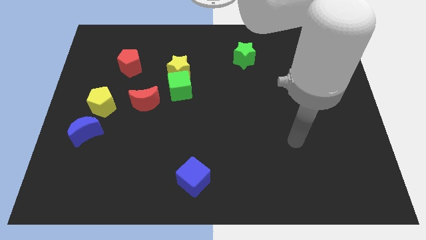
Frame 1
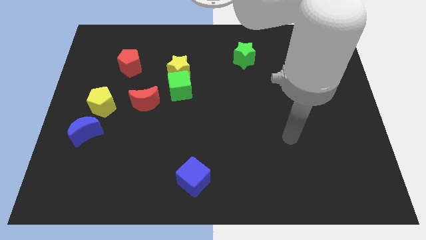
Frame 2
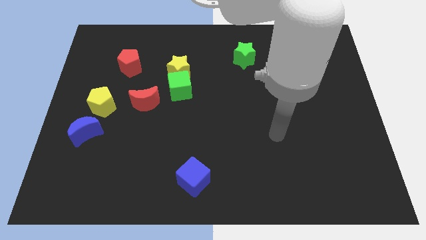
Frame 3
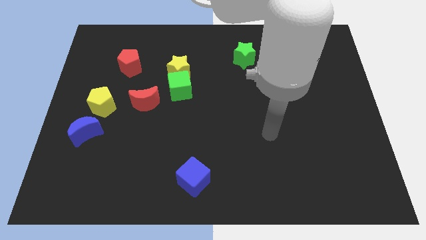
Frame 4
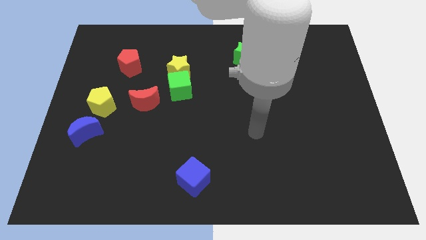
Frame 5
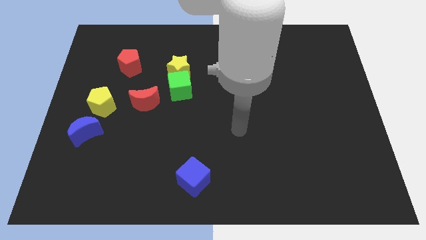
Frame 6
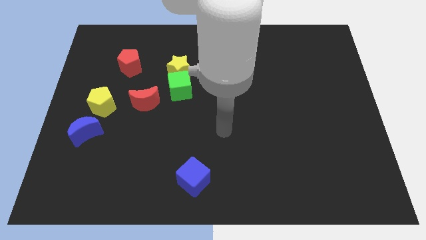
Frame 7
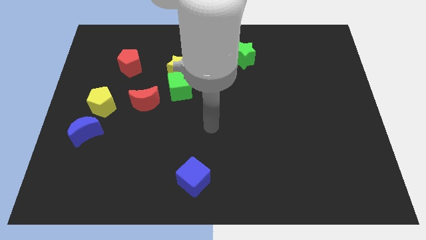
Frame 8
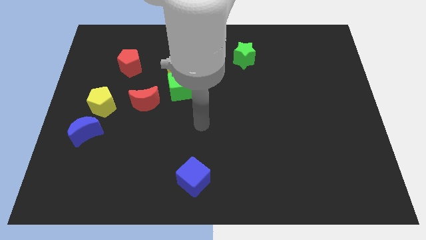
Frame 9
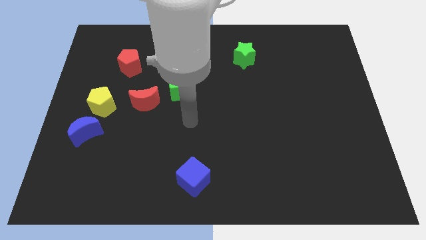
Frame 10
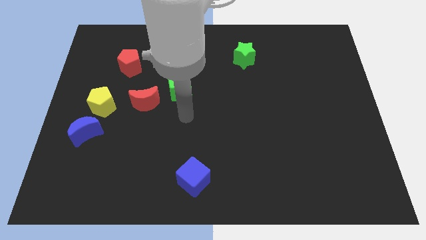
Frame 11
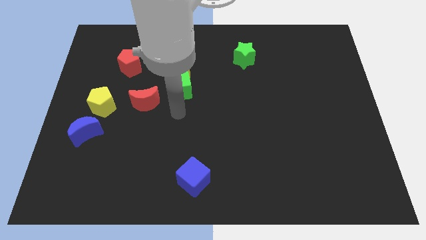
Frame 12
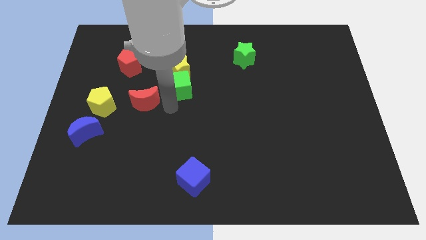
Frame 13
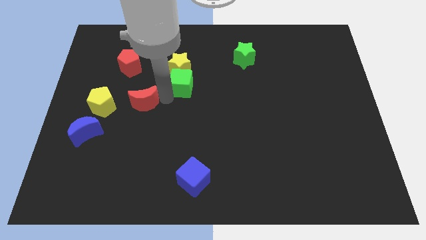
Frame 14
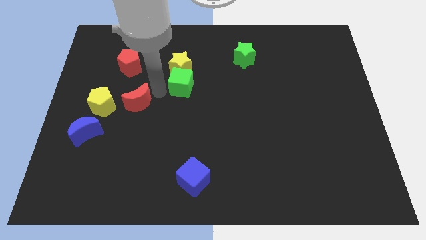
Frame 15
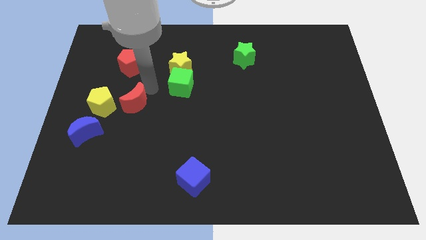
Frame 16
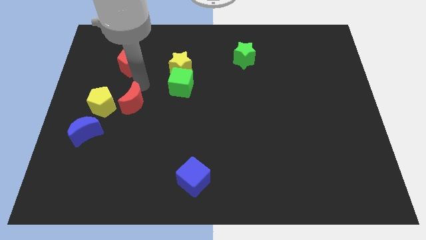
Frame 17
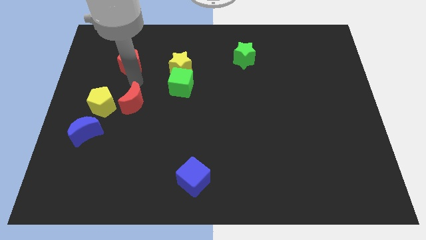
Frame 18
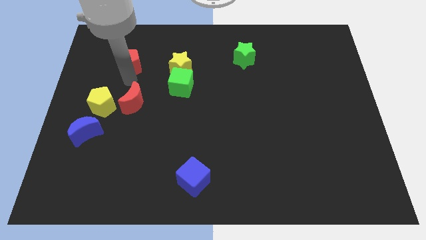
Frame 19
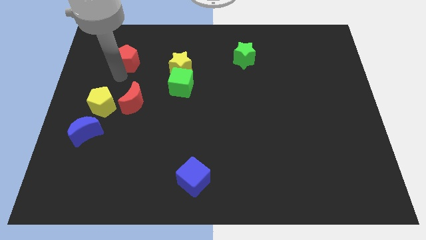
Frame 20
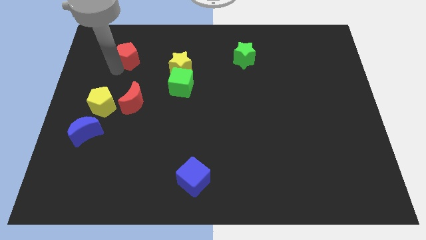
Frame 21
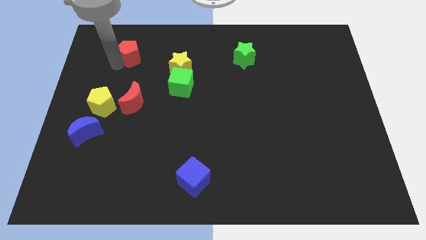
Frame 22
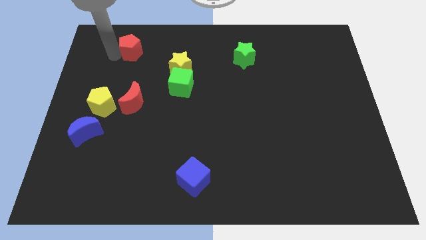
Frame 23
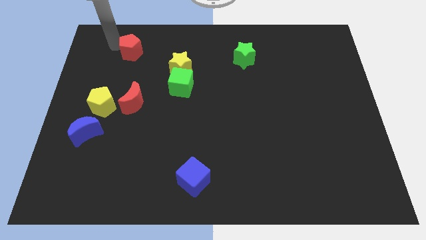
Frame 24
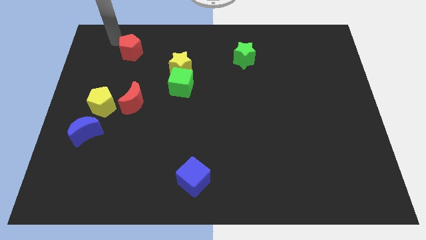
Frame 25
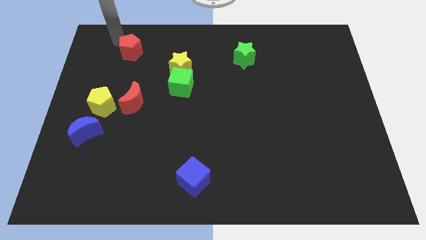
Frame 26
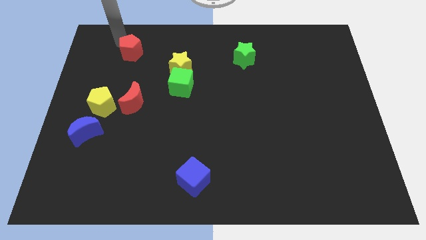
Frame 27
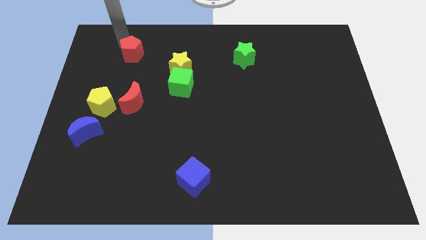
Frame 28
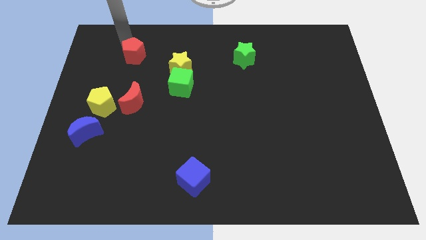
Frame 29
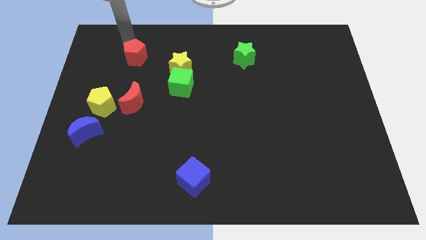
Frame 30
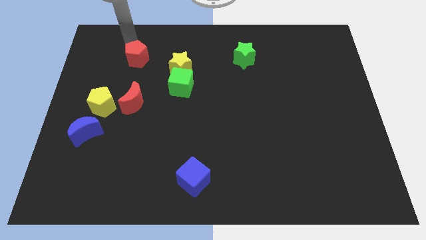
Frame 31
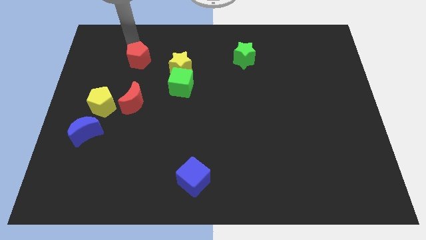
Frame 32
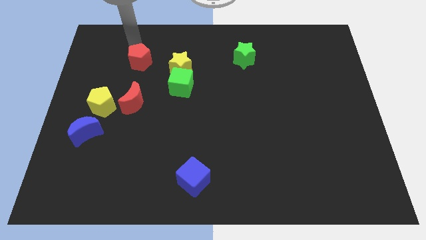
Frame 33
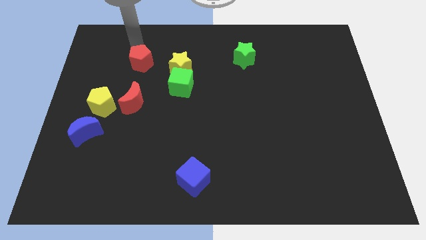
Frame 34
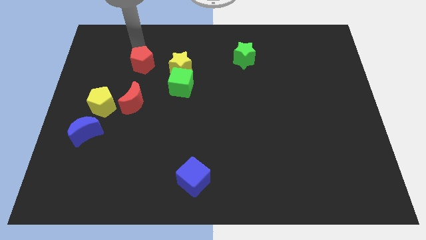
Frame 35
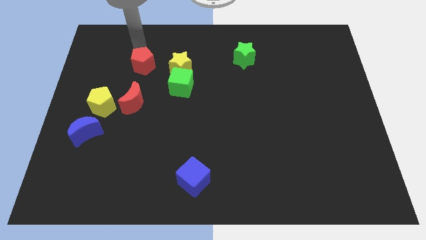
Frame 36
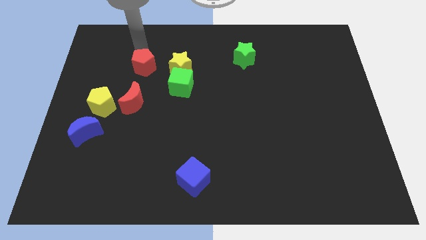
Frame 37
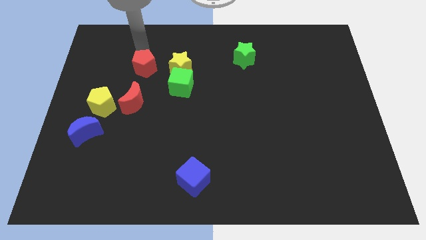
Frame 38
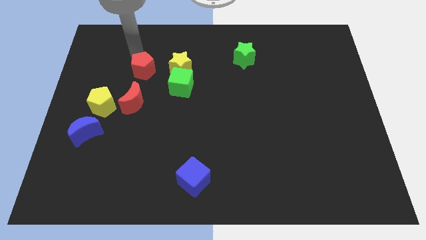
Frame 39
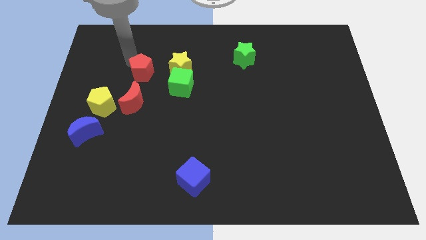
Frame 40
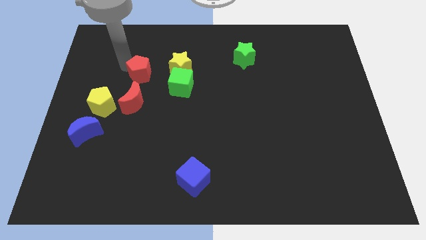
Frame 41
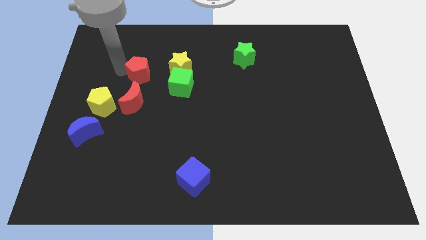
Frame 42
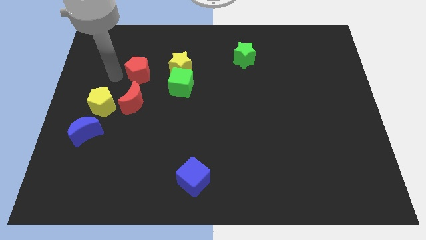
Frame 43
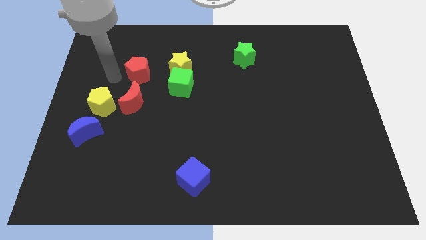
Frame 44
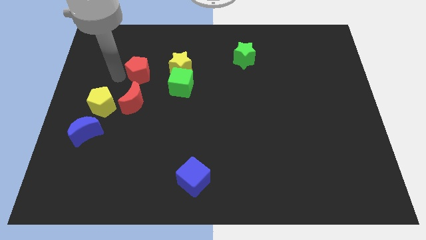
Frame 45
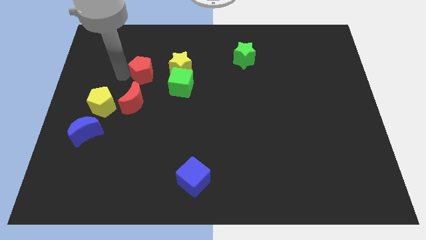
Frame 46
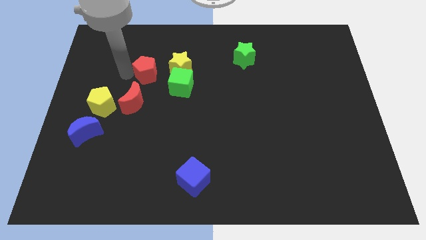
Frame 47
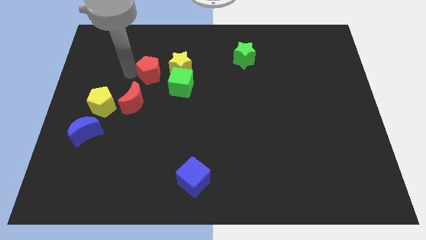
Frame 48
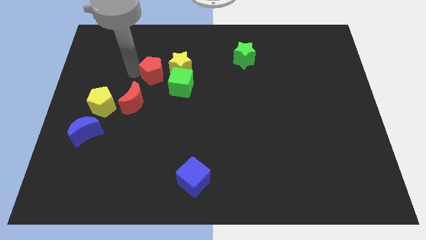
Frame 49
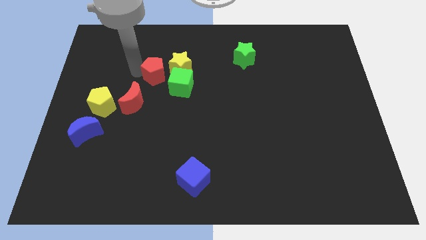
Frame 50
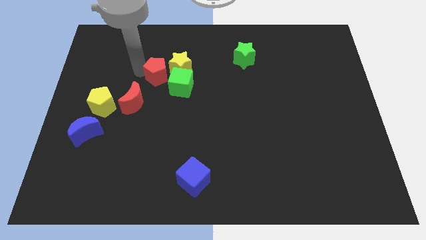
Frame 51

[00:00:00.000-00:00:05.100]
slide the red pentagon close to the yellow star

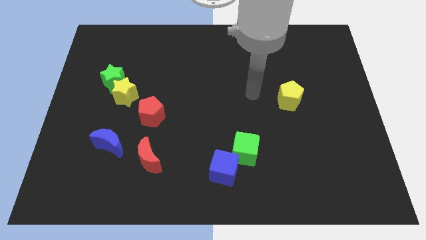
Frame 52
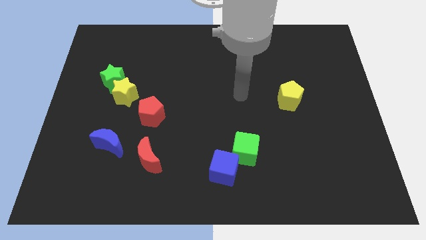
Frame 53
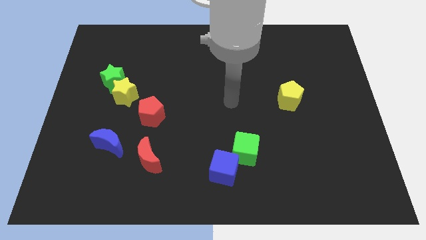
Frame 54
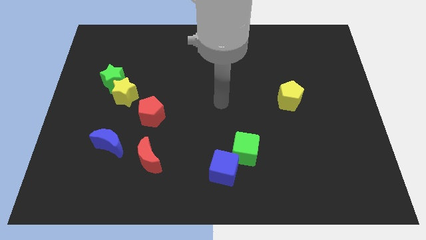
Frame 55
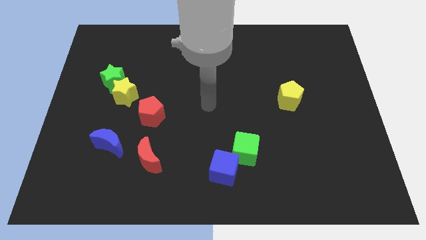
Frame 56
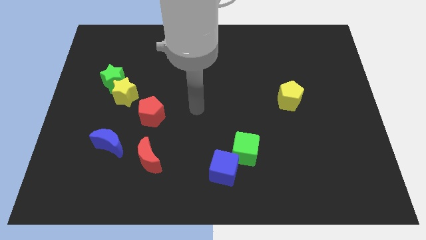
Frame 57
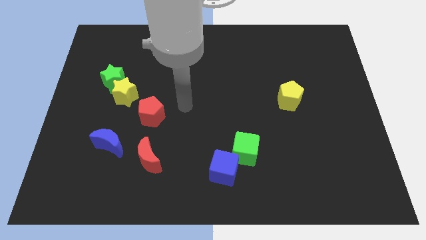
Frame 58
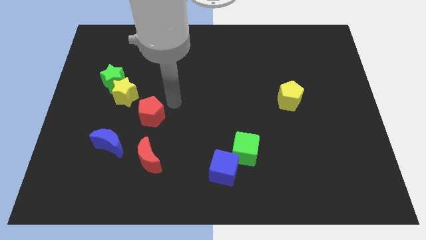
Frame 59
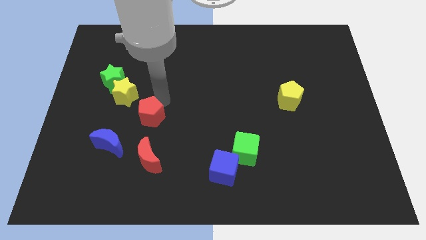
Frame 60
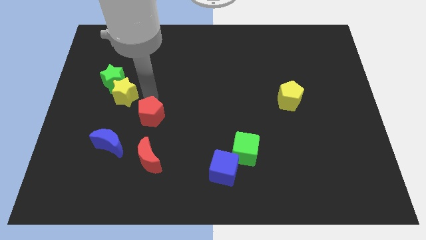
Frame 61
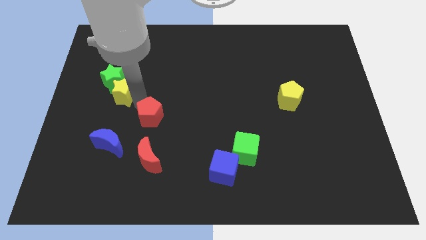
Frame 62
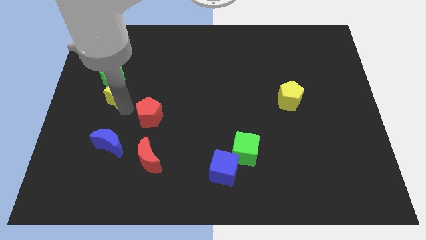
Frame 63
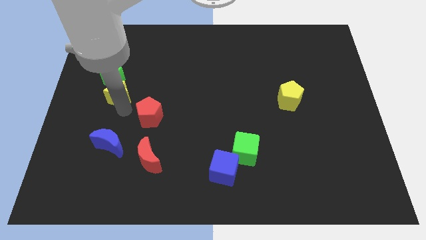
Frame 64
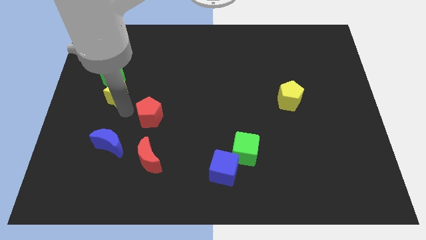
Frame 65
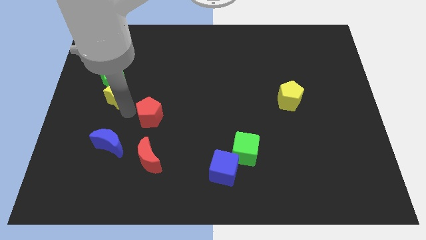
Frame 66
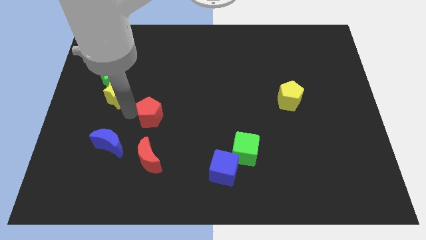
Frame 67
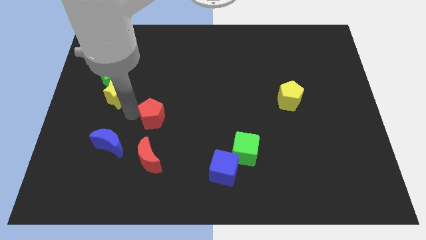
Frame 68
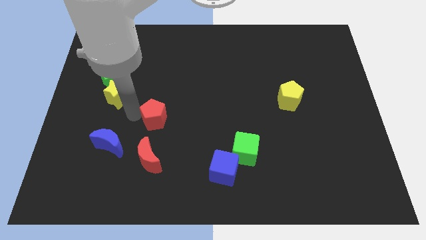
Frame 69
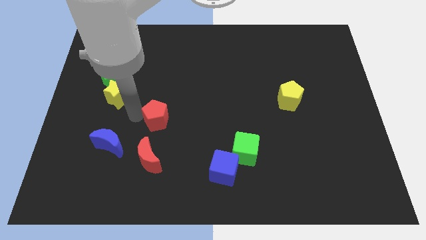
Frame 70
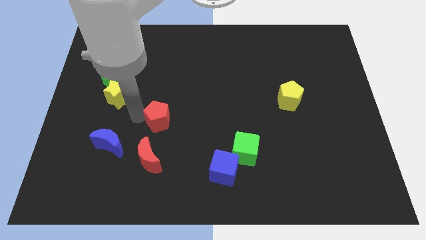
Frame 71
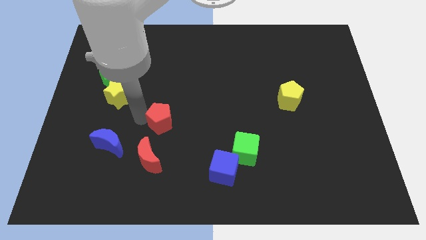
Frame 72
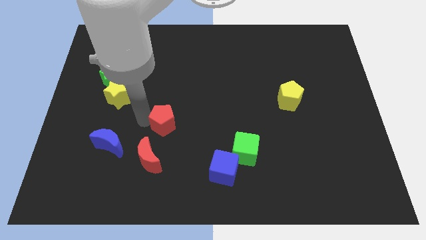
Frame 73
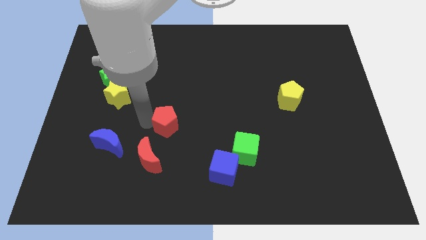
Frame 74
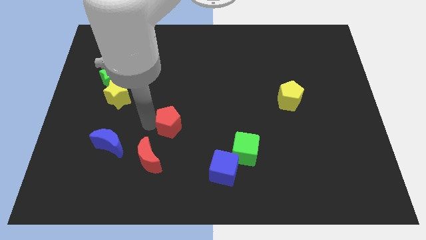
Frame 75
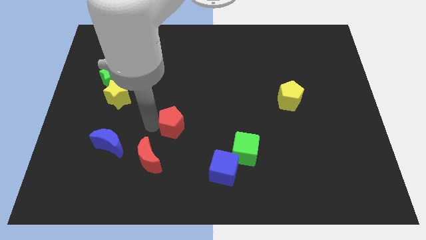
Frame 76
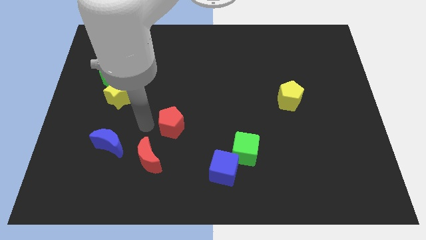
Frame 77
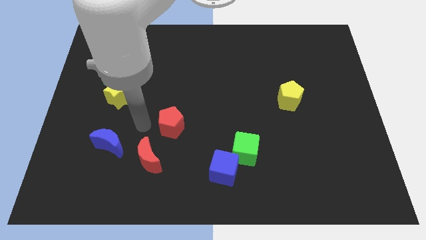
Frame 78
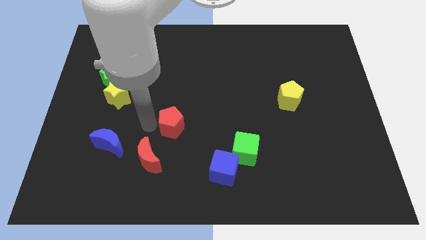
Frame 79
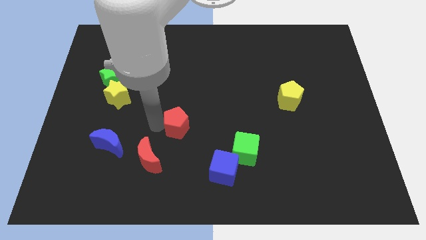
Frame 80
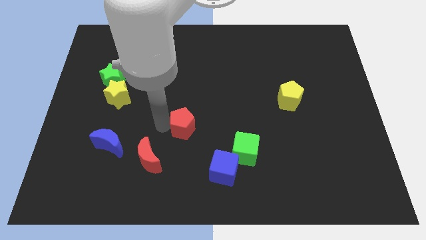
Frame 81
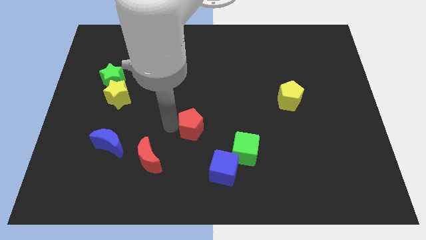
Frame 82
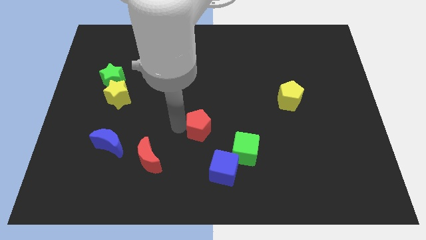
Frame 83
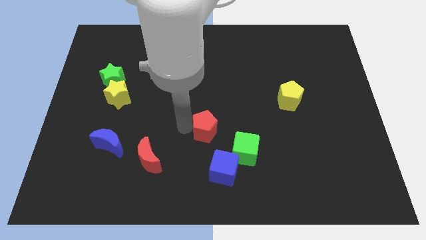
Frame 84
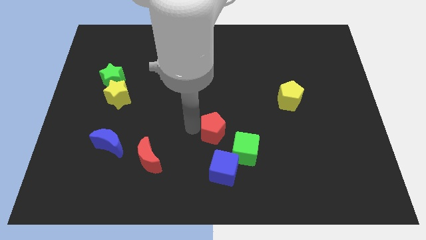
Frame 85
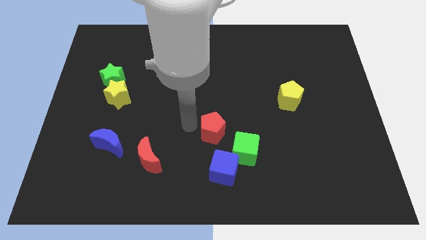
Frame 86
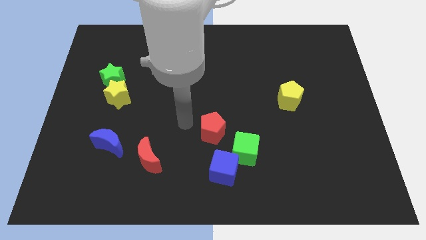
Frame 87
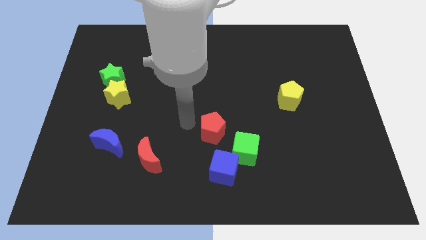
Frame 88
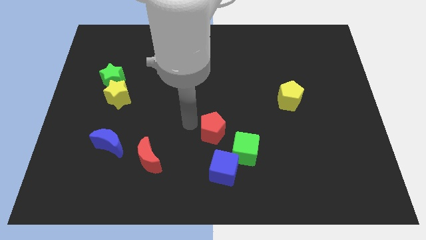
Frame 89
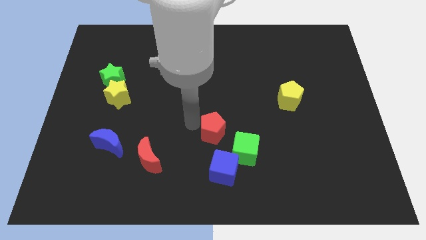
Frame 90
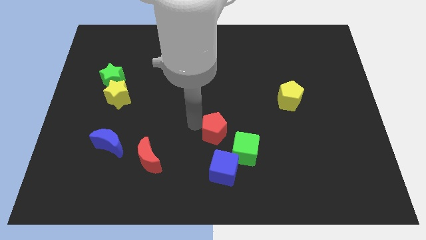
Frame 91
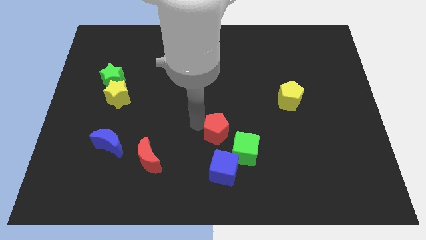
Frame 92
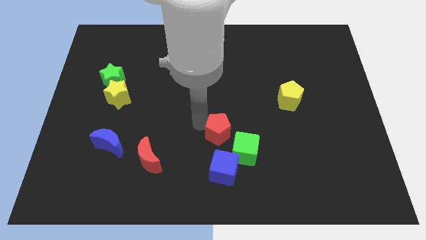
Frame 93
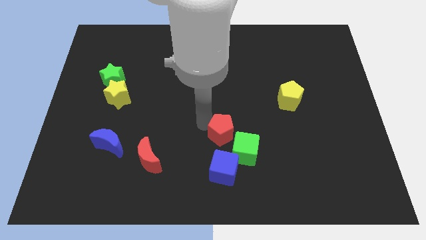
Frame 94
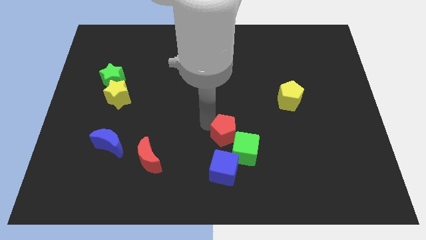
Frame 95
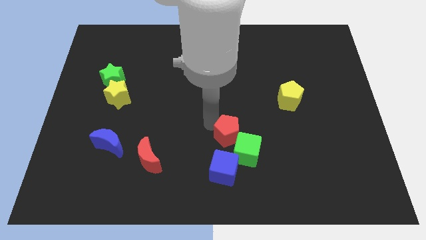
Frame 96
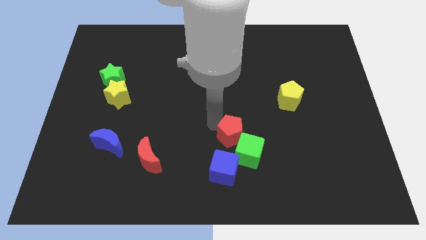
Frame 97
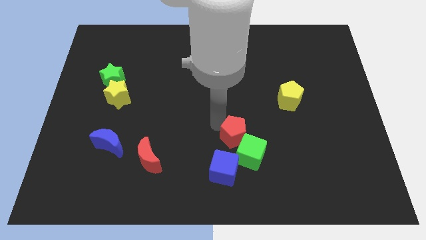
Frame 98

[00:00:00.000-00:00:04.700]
push the red pentagon next to the green cube
